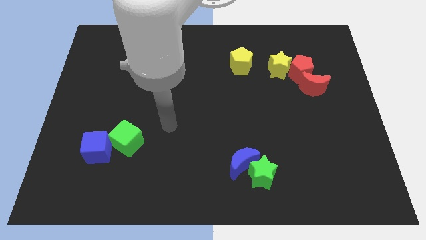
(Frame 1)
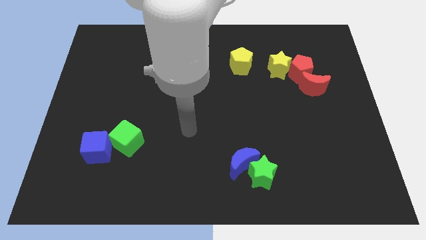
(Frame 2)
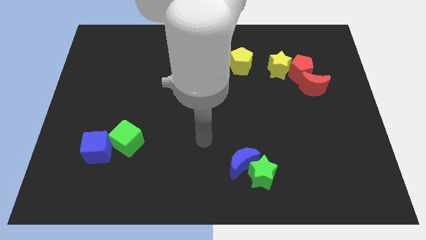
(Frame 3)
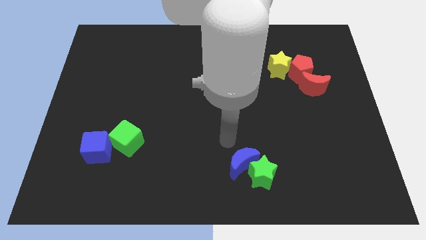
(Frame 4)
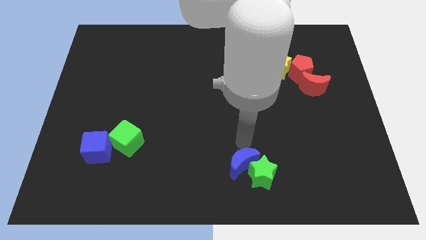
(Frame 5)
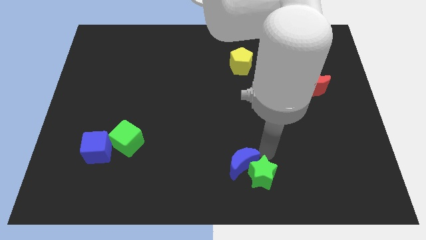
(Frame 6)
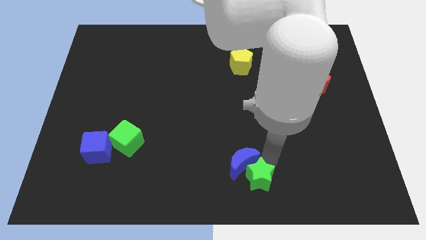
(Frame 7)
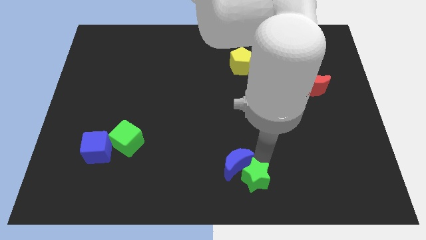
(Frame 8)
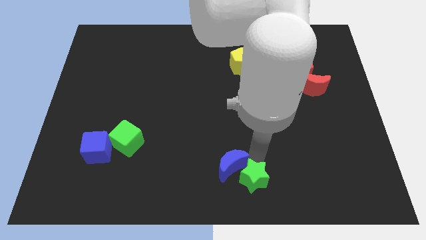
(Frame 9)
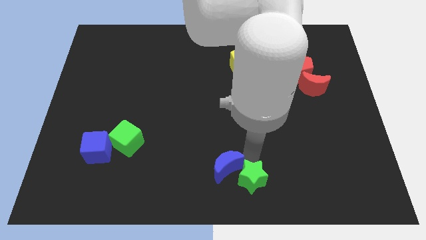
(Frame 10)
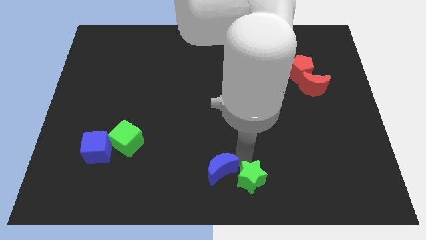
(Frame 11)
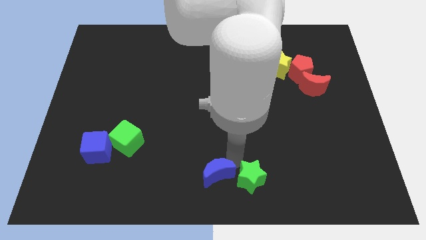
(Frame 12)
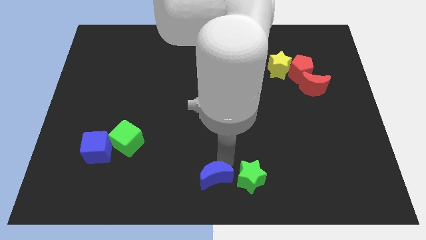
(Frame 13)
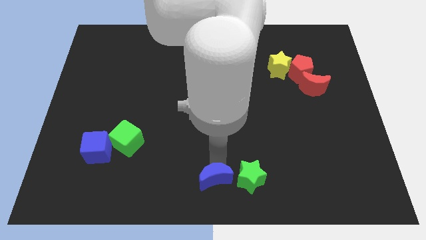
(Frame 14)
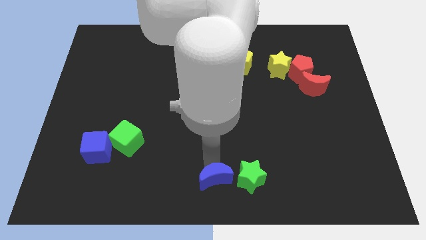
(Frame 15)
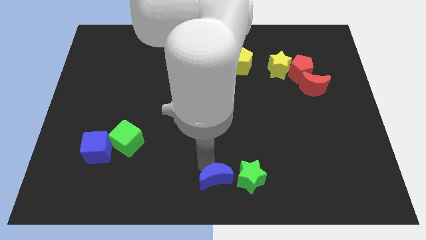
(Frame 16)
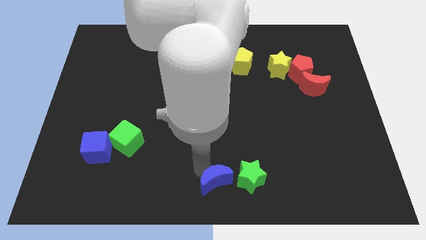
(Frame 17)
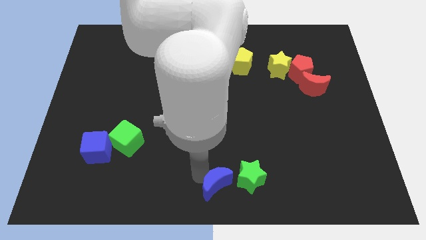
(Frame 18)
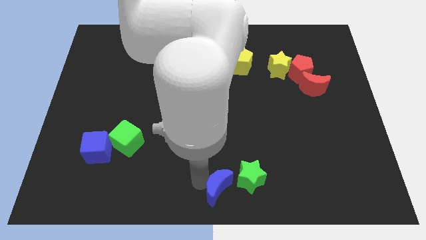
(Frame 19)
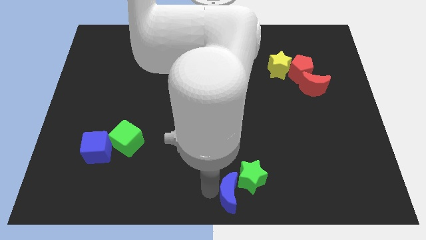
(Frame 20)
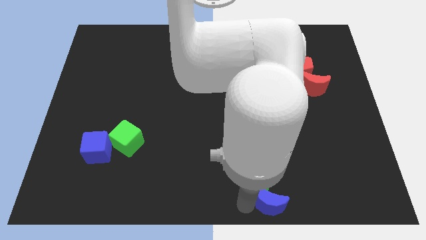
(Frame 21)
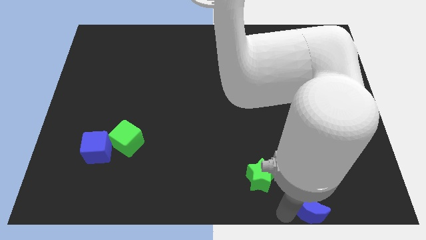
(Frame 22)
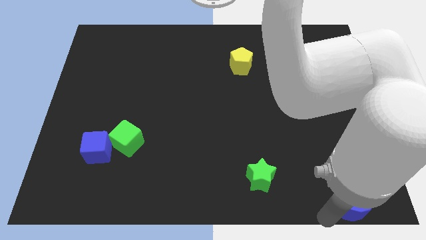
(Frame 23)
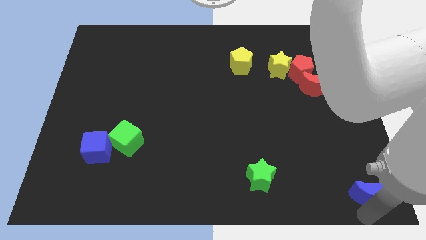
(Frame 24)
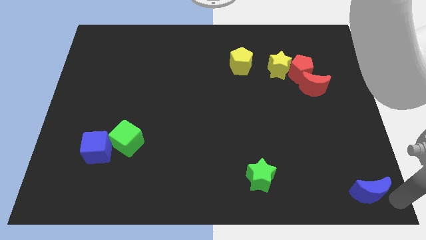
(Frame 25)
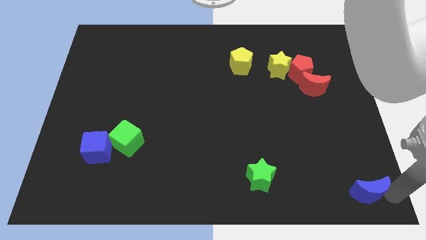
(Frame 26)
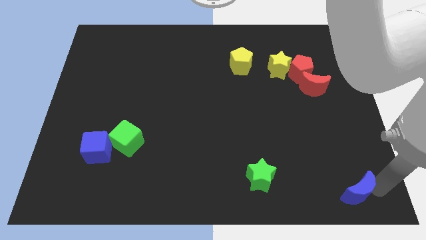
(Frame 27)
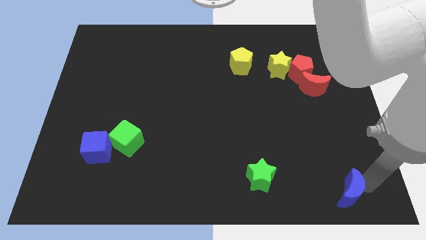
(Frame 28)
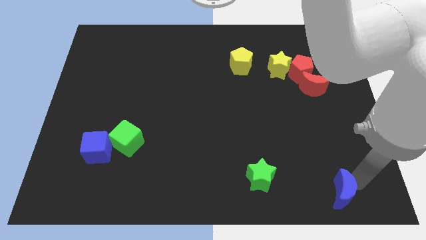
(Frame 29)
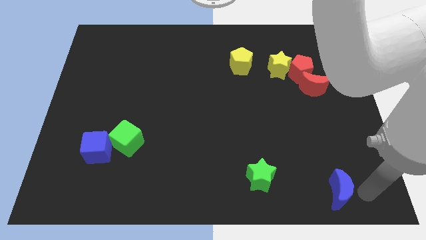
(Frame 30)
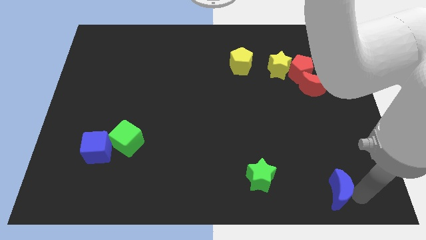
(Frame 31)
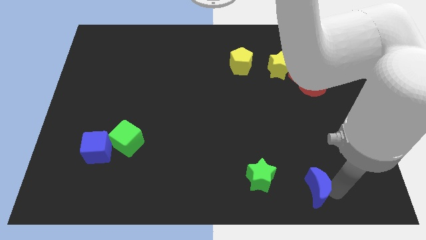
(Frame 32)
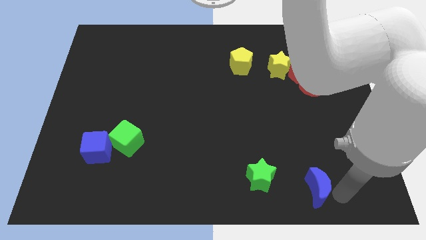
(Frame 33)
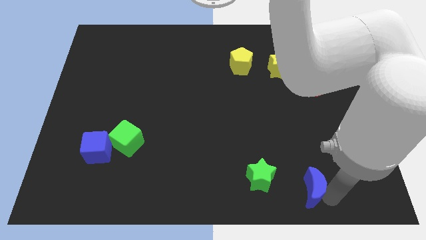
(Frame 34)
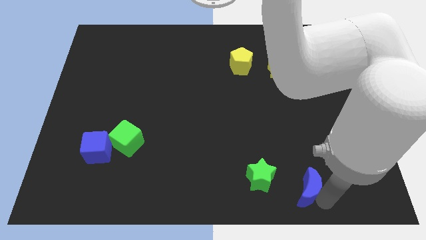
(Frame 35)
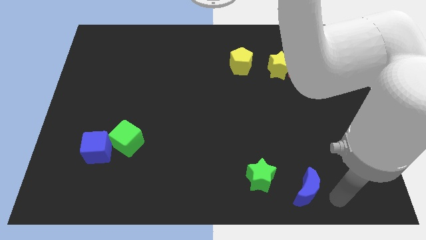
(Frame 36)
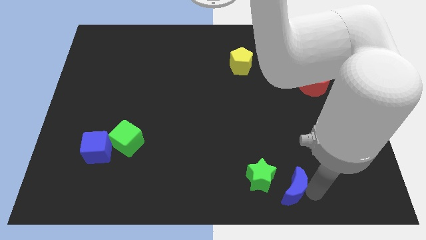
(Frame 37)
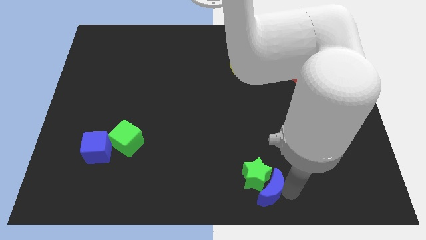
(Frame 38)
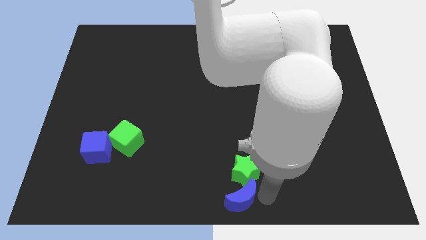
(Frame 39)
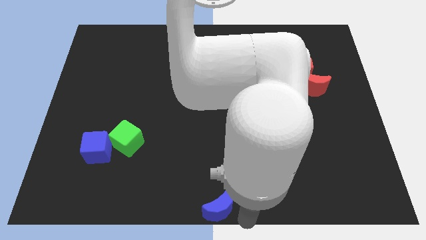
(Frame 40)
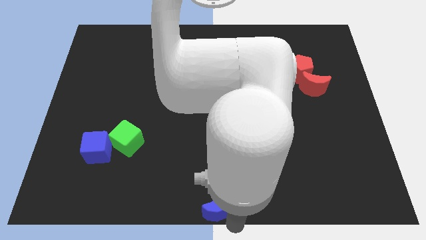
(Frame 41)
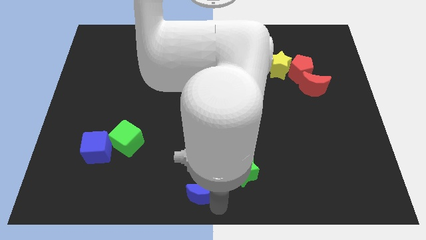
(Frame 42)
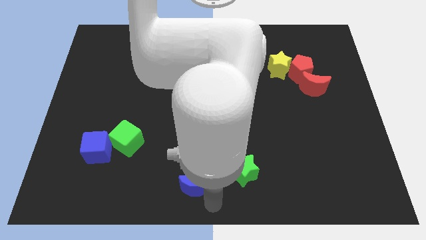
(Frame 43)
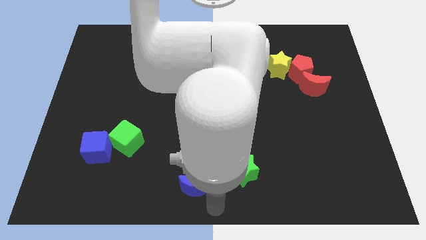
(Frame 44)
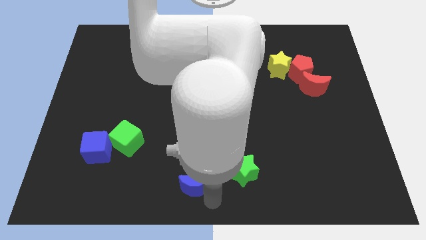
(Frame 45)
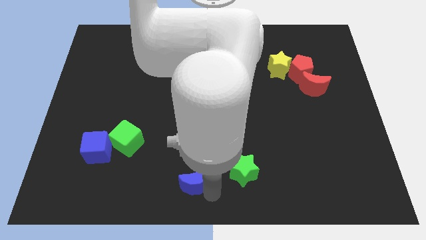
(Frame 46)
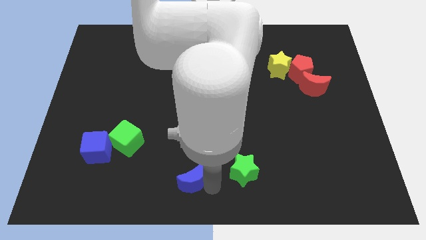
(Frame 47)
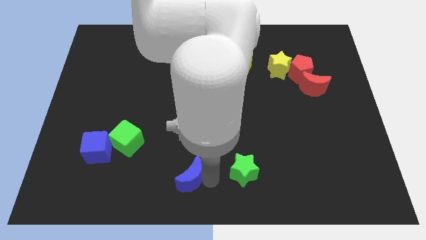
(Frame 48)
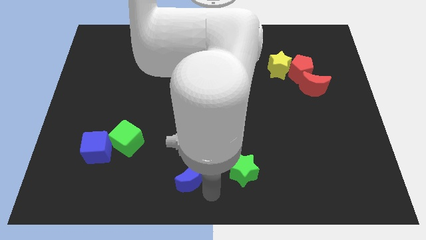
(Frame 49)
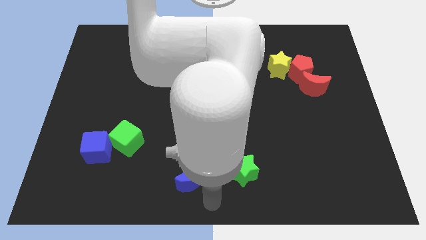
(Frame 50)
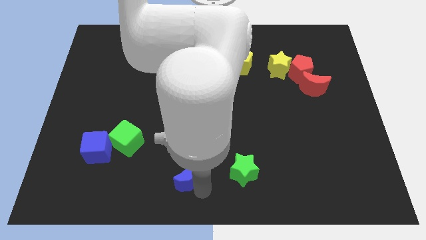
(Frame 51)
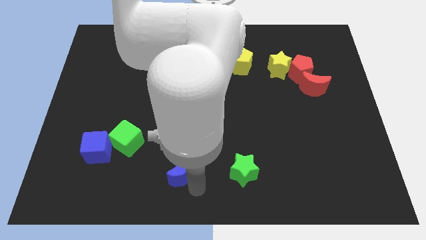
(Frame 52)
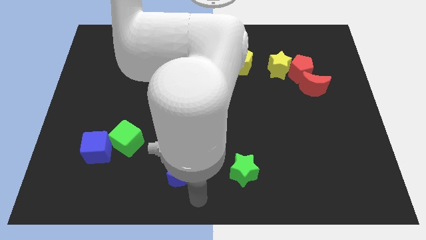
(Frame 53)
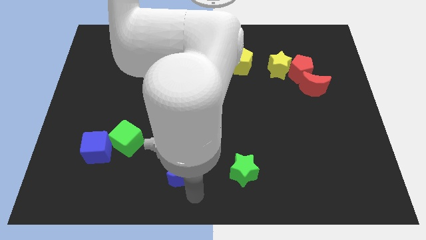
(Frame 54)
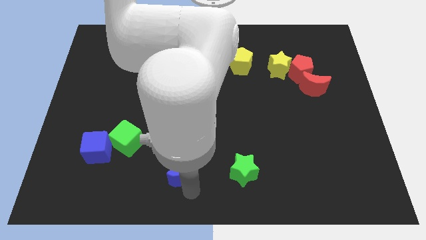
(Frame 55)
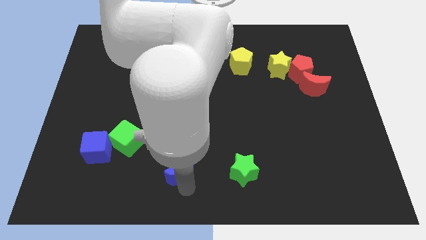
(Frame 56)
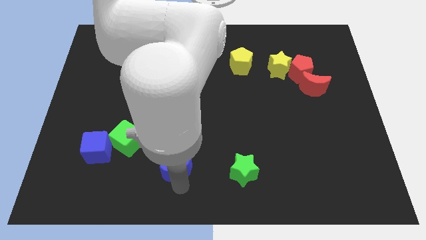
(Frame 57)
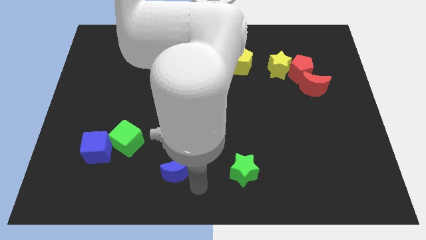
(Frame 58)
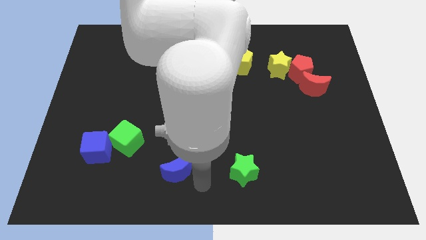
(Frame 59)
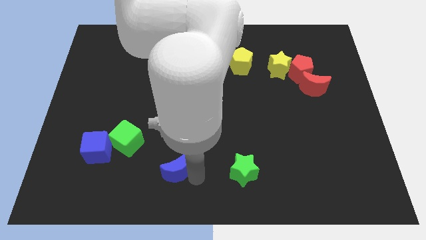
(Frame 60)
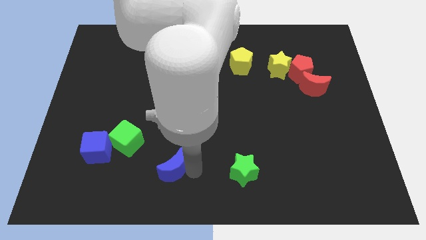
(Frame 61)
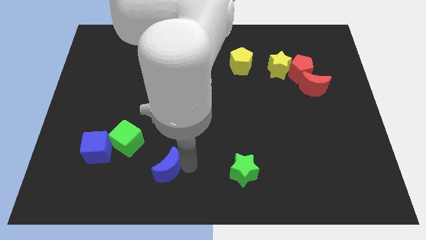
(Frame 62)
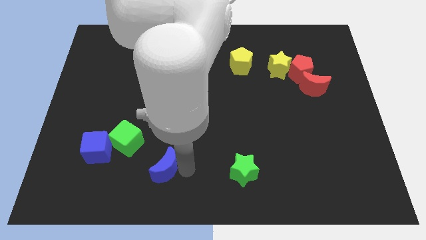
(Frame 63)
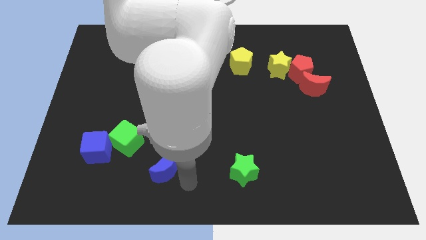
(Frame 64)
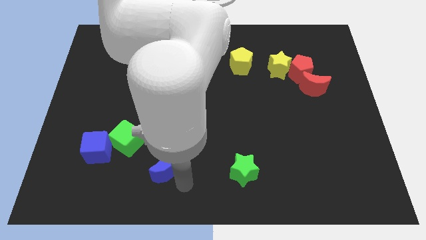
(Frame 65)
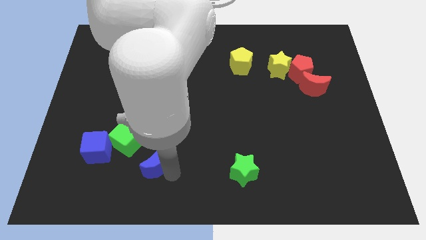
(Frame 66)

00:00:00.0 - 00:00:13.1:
move the blue moon just right of the blue cube

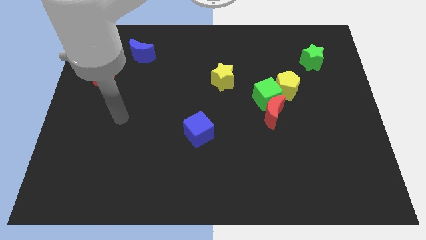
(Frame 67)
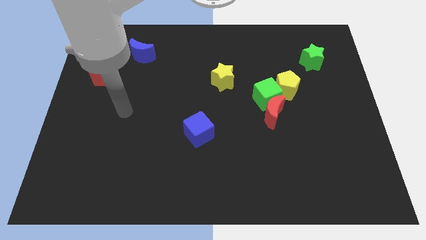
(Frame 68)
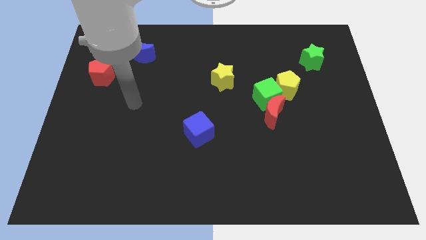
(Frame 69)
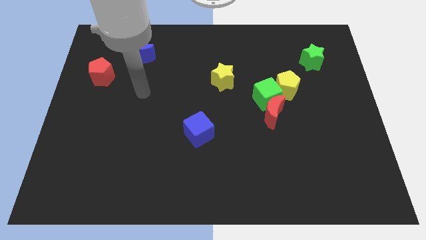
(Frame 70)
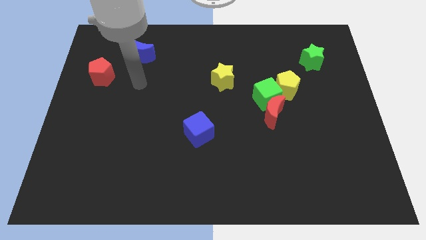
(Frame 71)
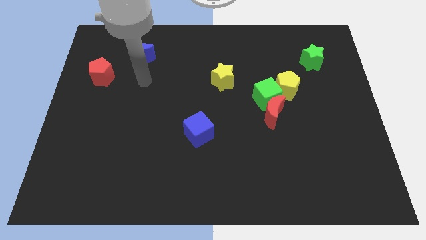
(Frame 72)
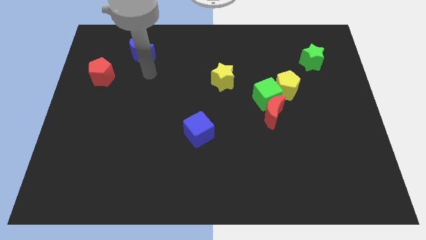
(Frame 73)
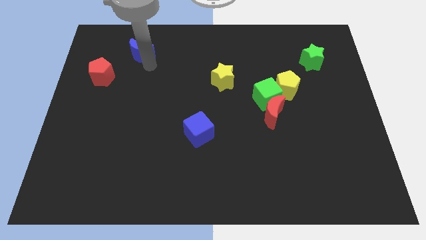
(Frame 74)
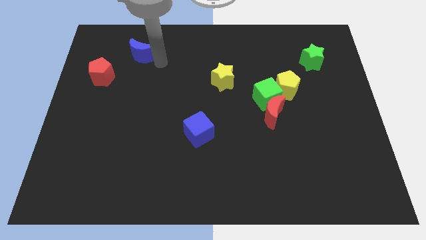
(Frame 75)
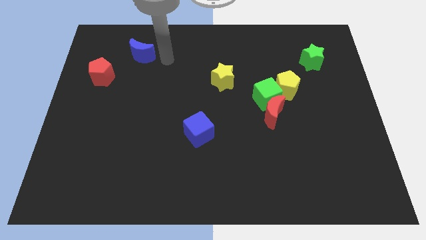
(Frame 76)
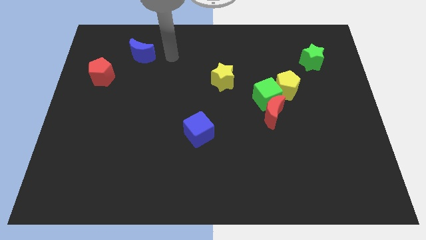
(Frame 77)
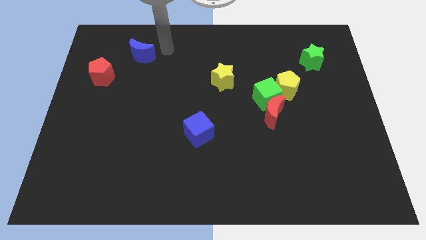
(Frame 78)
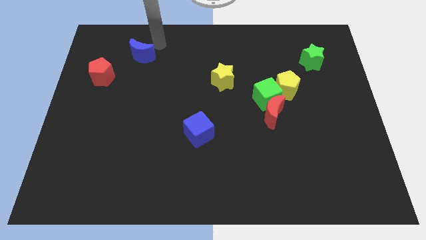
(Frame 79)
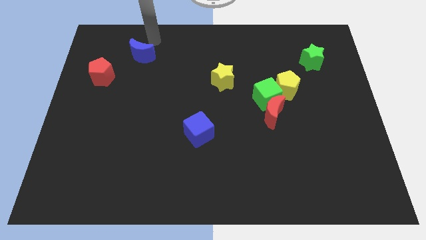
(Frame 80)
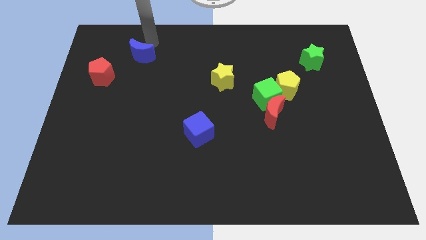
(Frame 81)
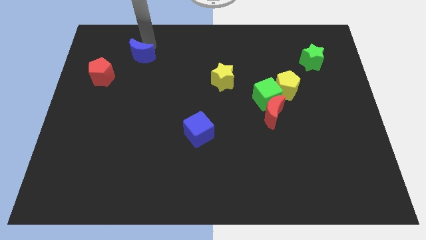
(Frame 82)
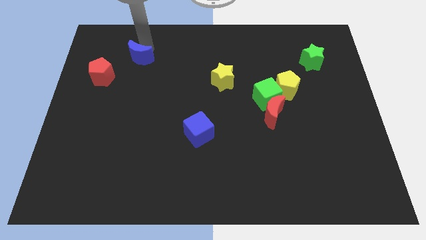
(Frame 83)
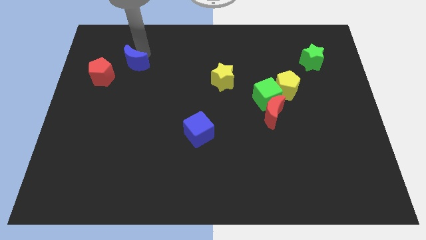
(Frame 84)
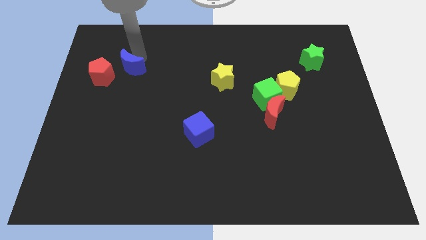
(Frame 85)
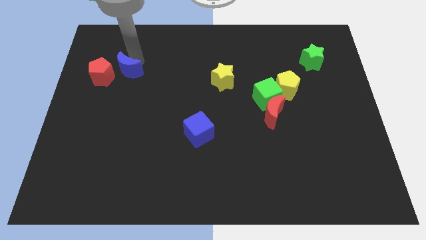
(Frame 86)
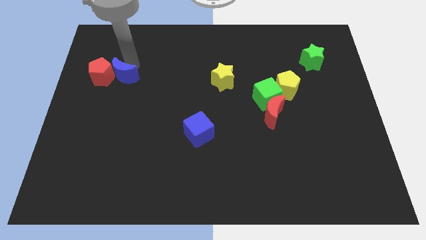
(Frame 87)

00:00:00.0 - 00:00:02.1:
put the blue moon to the bottom right side of the red pentagon
